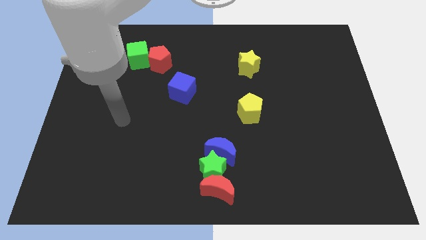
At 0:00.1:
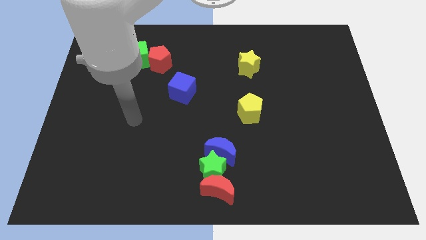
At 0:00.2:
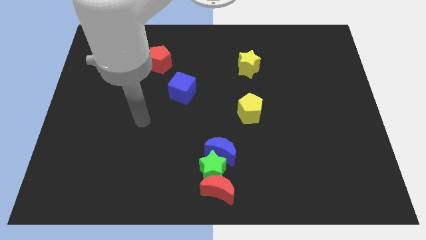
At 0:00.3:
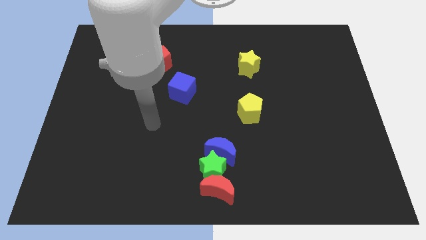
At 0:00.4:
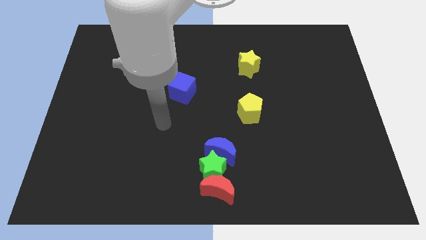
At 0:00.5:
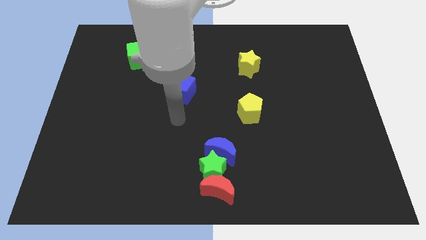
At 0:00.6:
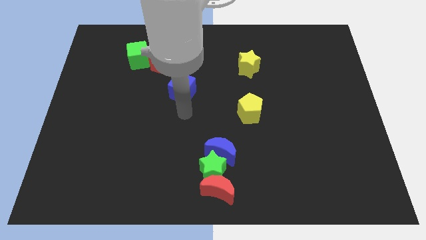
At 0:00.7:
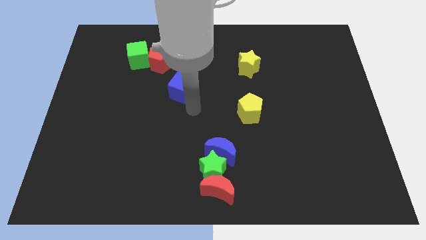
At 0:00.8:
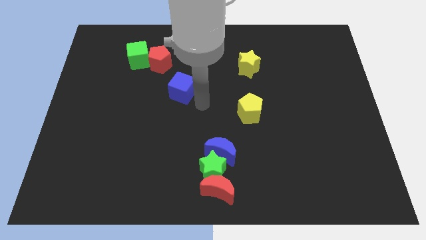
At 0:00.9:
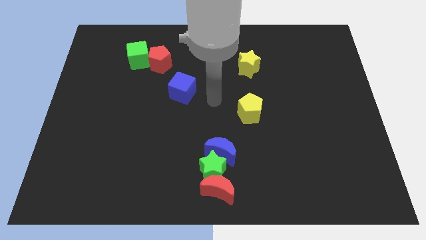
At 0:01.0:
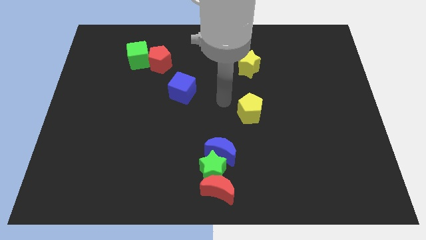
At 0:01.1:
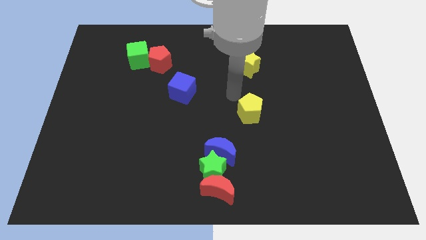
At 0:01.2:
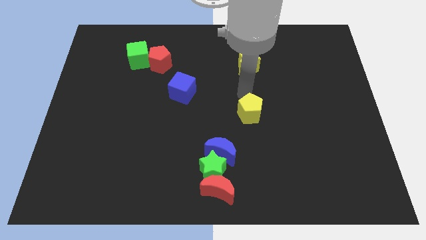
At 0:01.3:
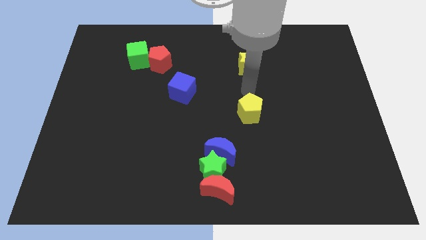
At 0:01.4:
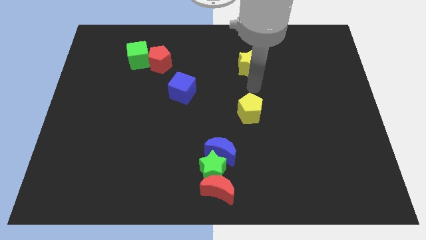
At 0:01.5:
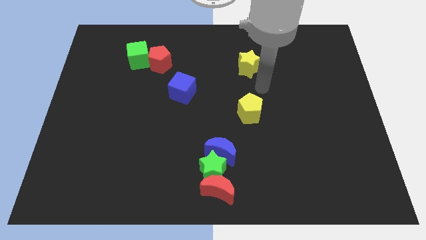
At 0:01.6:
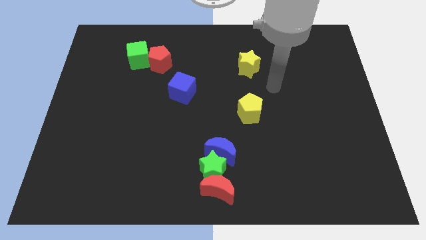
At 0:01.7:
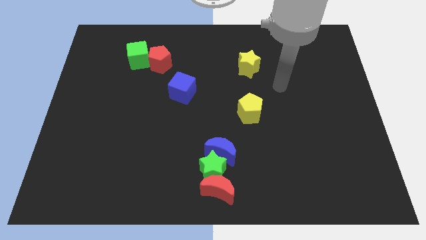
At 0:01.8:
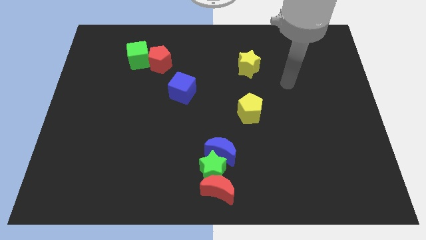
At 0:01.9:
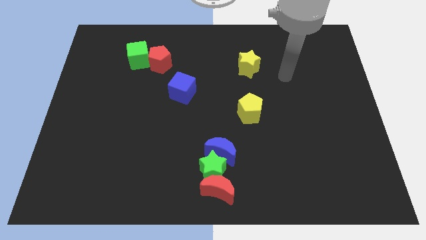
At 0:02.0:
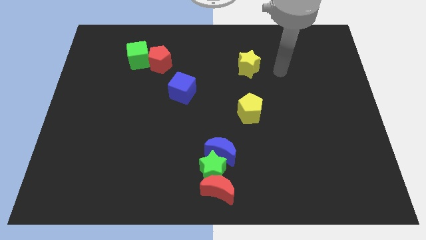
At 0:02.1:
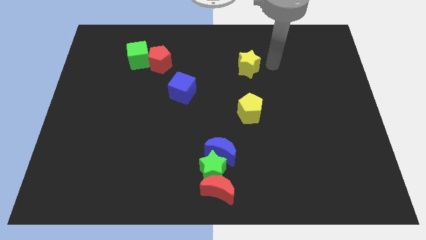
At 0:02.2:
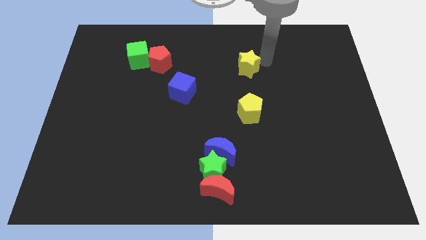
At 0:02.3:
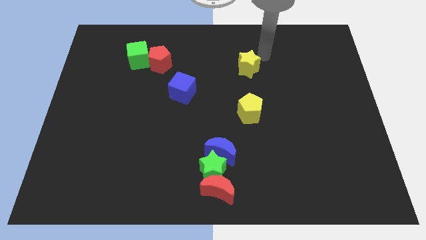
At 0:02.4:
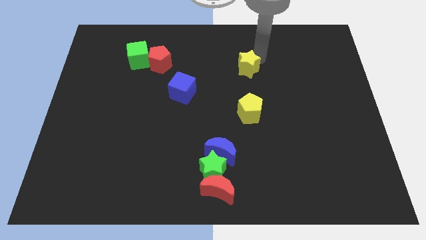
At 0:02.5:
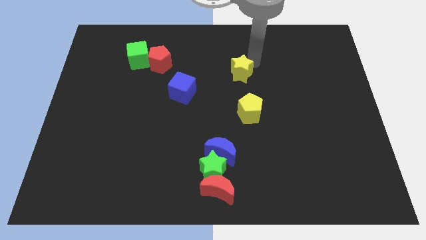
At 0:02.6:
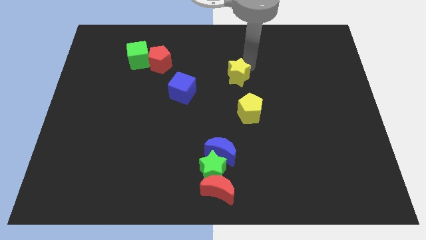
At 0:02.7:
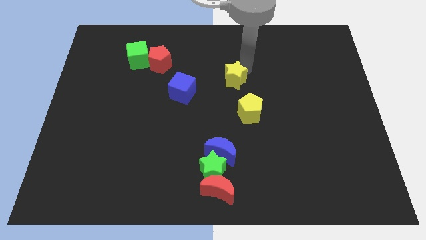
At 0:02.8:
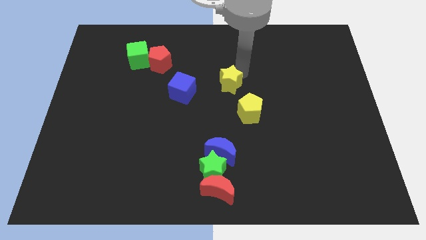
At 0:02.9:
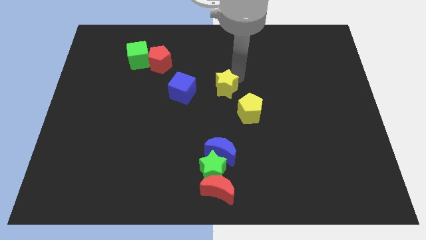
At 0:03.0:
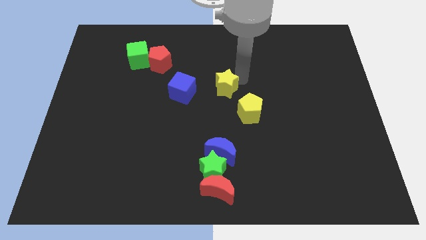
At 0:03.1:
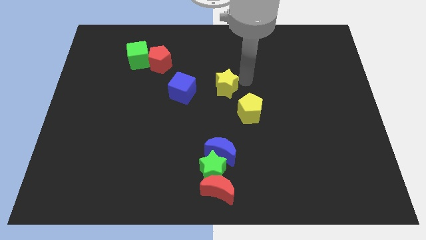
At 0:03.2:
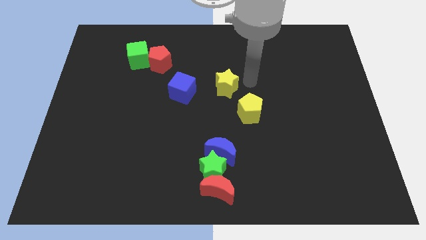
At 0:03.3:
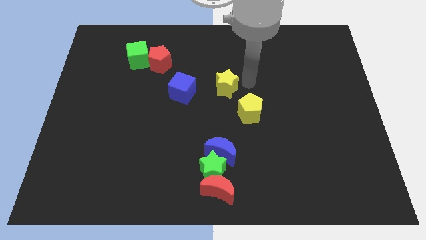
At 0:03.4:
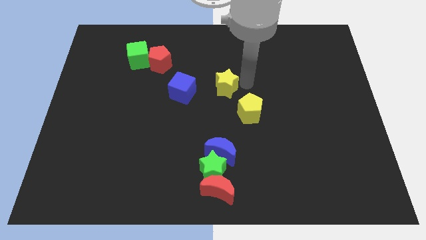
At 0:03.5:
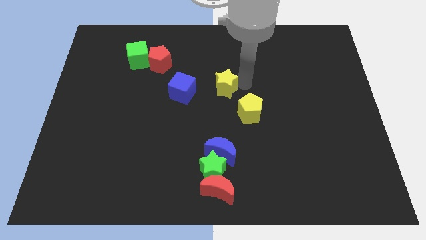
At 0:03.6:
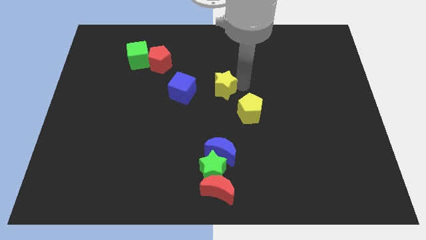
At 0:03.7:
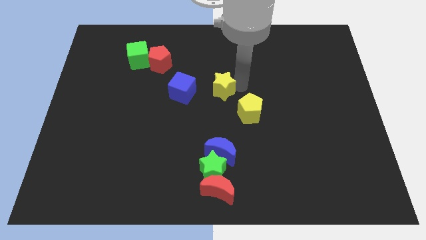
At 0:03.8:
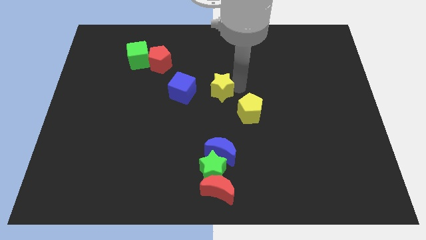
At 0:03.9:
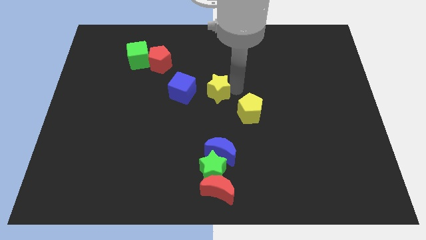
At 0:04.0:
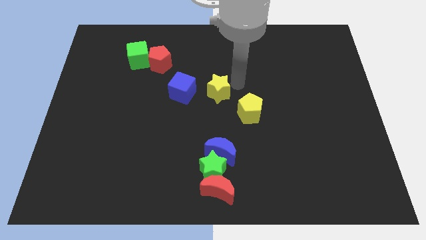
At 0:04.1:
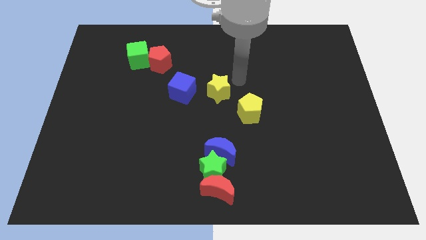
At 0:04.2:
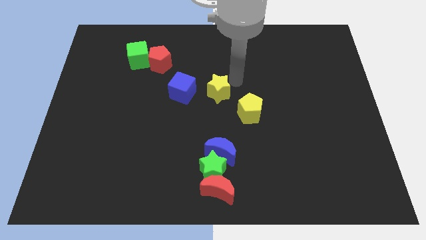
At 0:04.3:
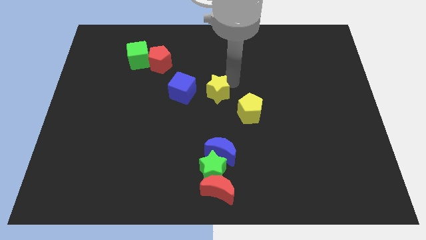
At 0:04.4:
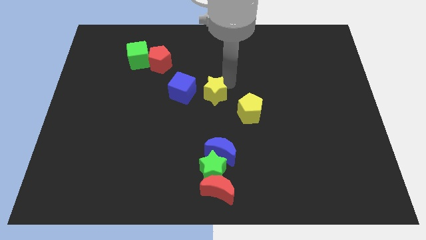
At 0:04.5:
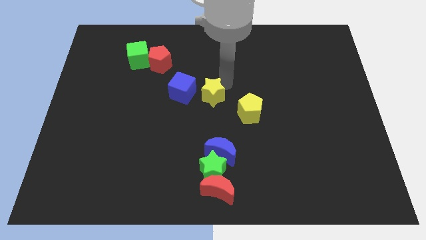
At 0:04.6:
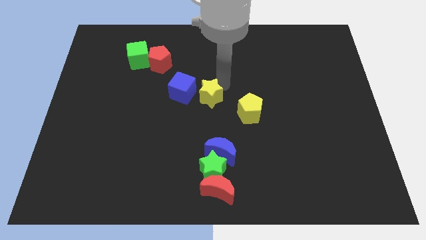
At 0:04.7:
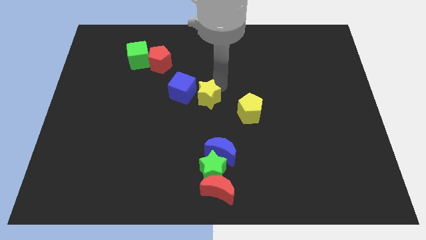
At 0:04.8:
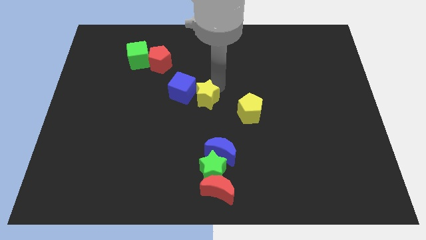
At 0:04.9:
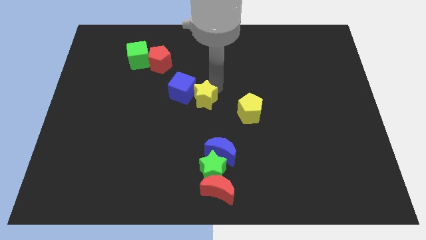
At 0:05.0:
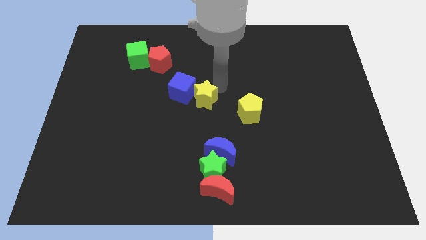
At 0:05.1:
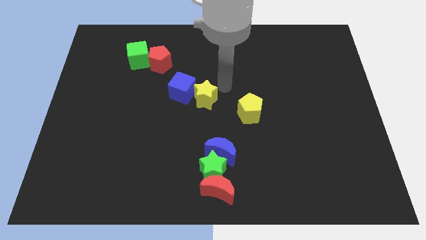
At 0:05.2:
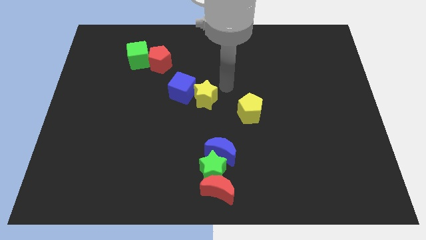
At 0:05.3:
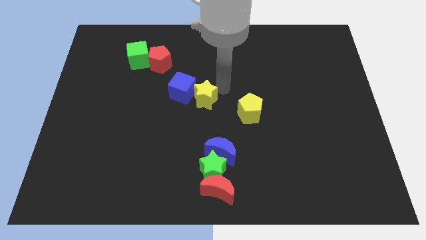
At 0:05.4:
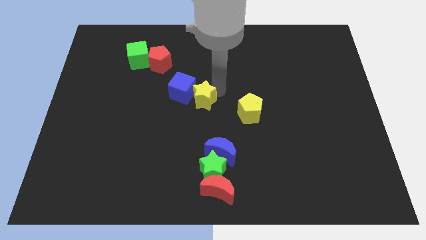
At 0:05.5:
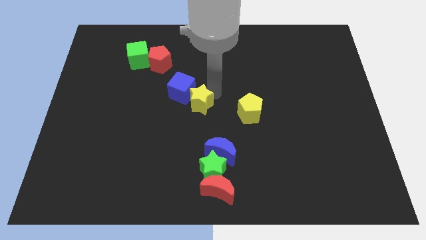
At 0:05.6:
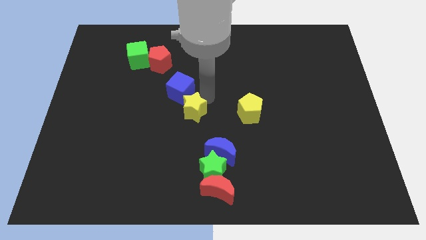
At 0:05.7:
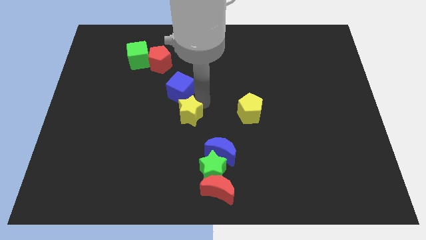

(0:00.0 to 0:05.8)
move the yellow star down and to the left diagonally

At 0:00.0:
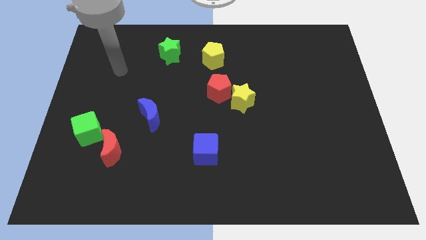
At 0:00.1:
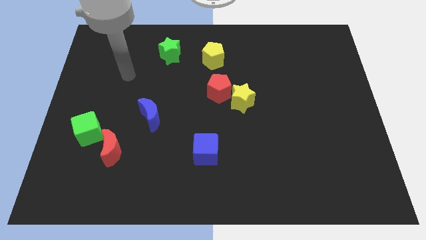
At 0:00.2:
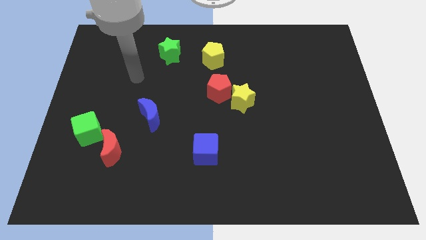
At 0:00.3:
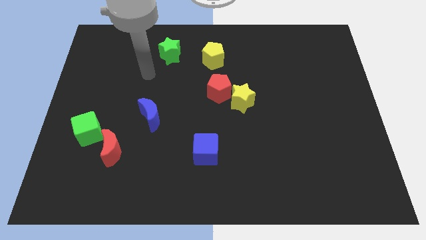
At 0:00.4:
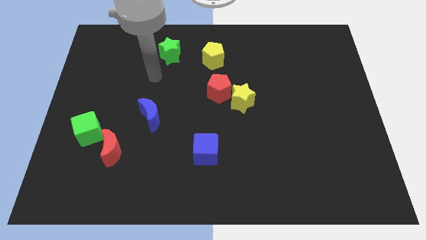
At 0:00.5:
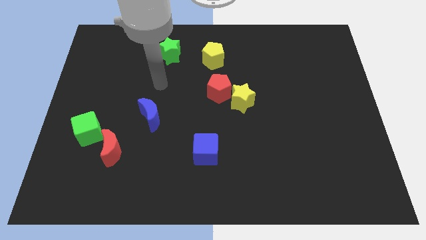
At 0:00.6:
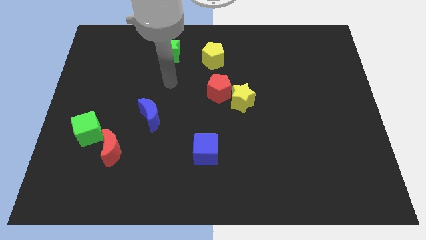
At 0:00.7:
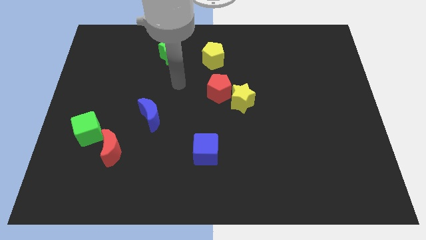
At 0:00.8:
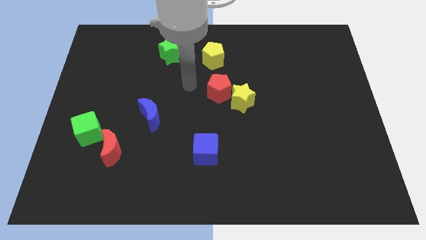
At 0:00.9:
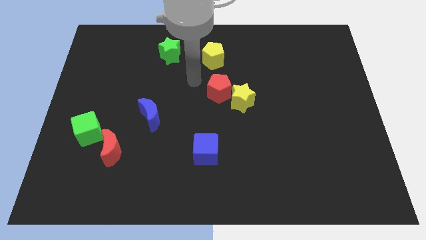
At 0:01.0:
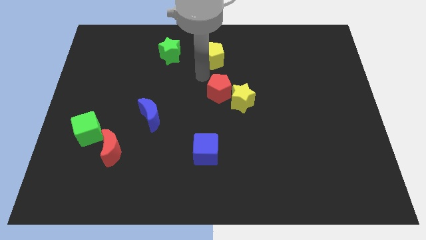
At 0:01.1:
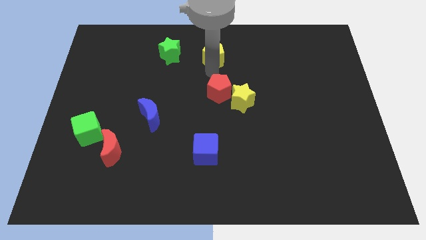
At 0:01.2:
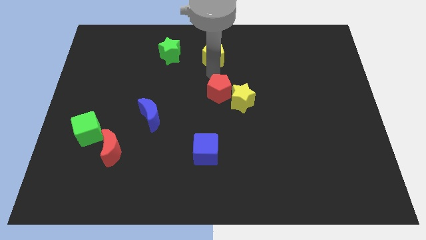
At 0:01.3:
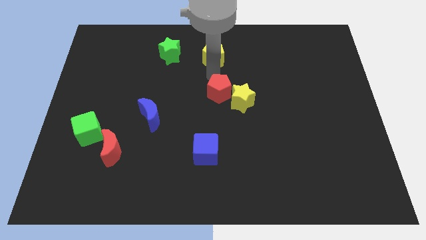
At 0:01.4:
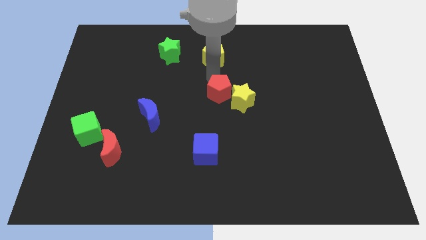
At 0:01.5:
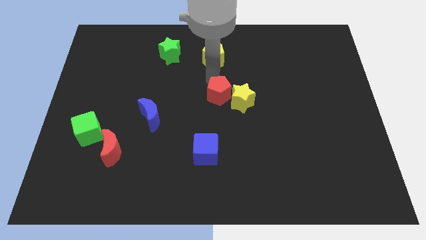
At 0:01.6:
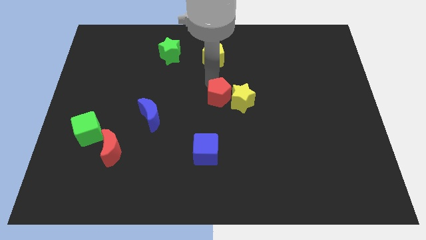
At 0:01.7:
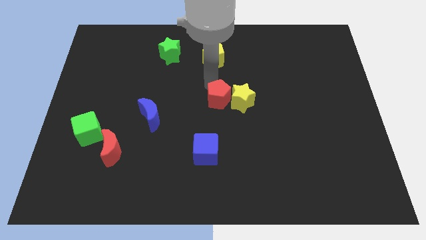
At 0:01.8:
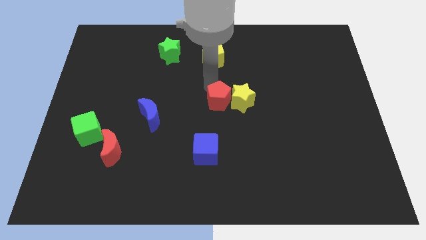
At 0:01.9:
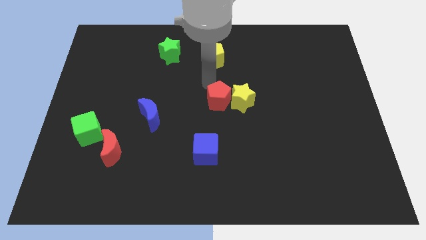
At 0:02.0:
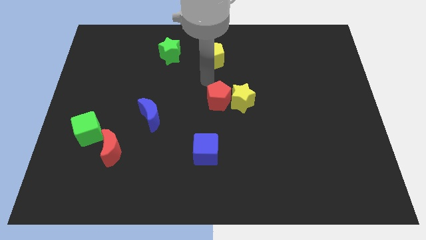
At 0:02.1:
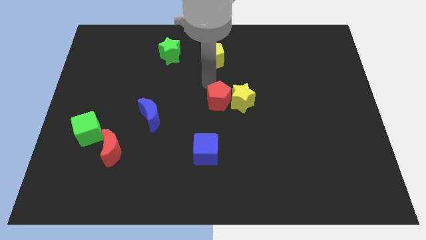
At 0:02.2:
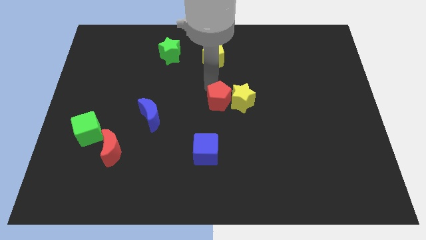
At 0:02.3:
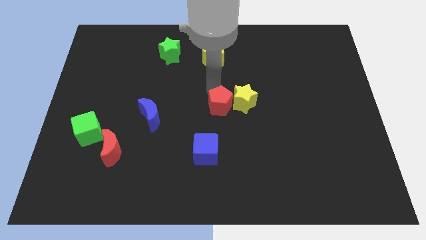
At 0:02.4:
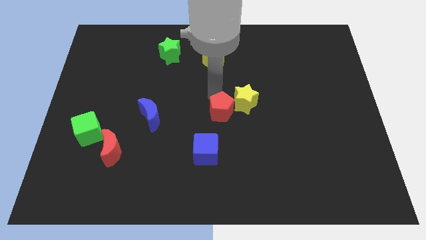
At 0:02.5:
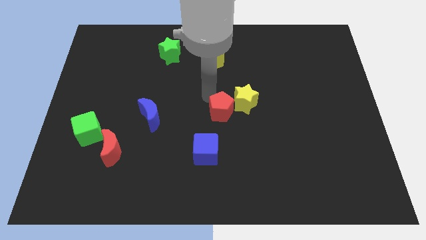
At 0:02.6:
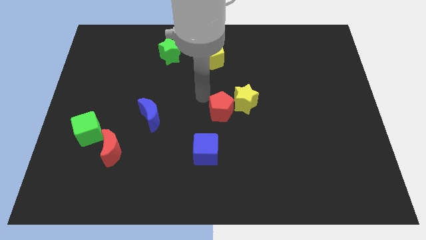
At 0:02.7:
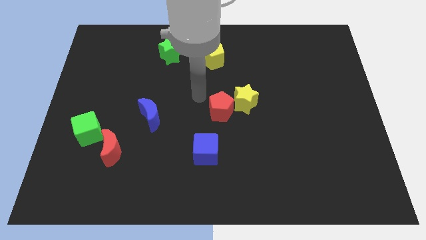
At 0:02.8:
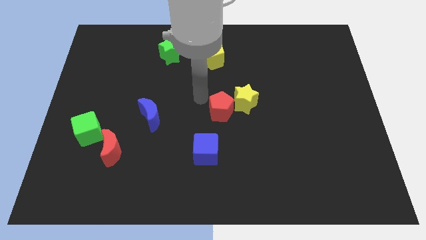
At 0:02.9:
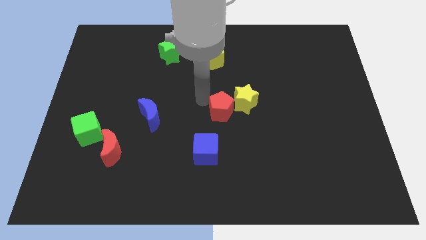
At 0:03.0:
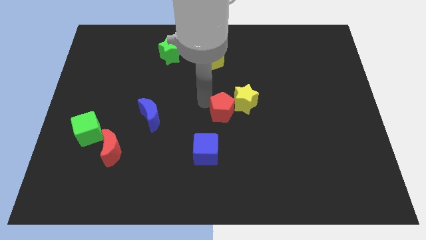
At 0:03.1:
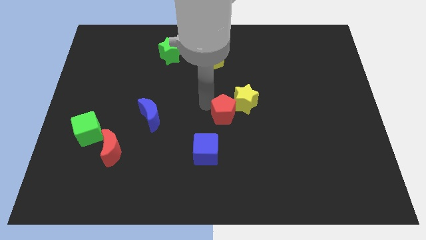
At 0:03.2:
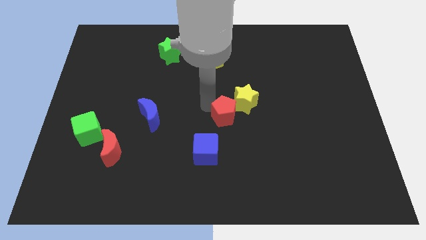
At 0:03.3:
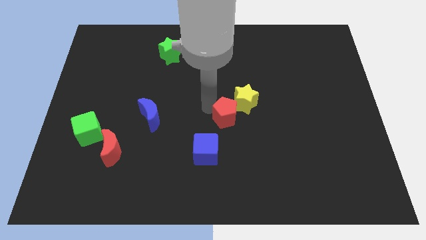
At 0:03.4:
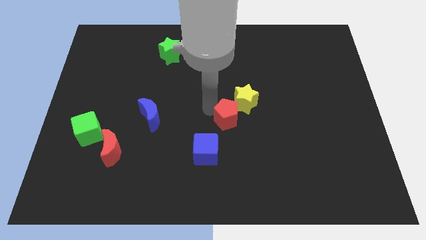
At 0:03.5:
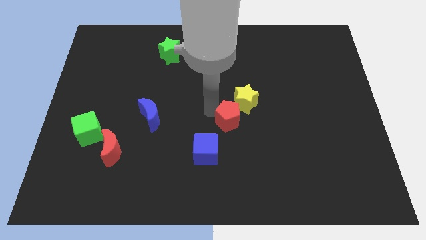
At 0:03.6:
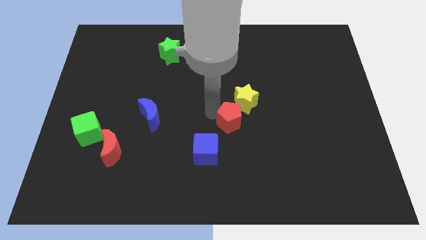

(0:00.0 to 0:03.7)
move the red pentagon diagonally down and right a bit
